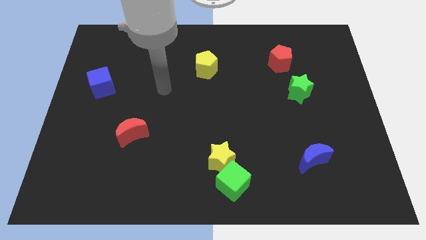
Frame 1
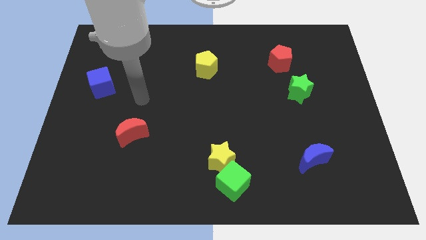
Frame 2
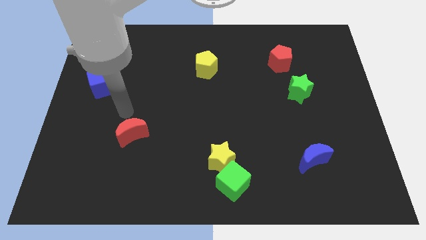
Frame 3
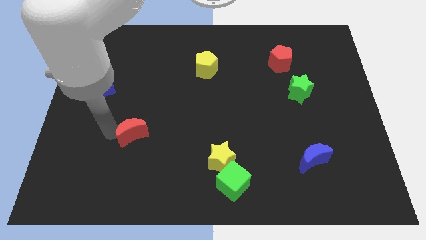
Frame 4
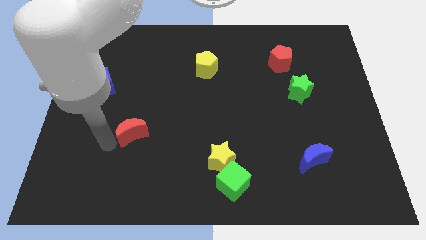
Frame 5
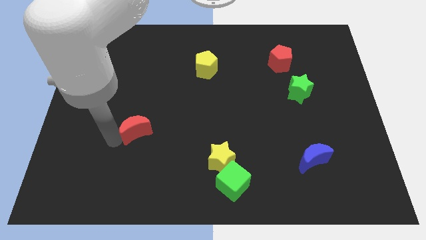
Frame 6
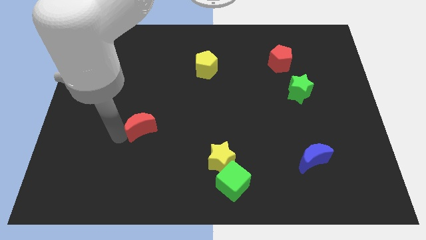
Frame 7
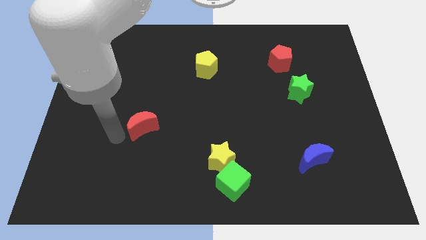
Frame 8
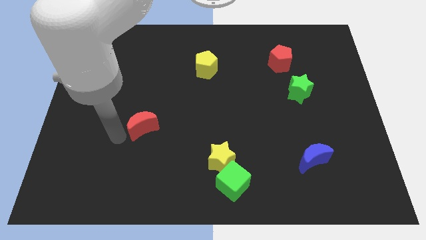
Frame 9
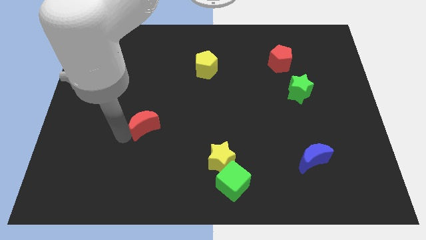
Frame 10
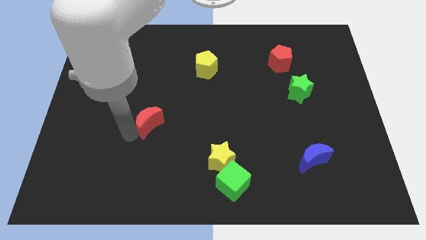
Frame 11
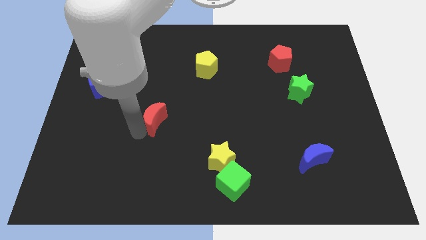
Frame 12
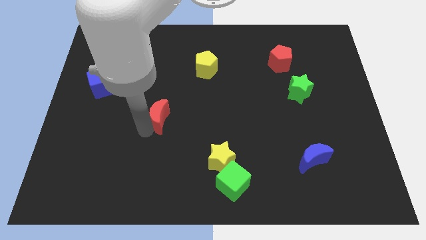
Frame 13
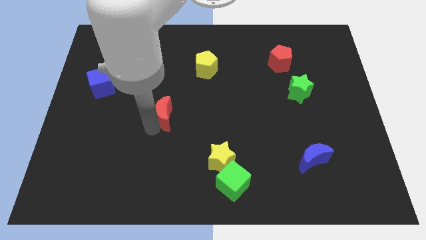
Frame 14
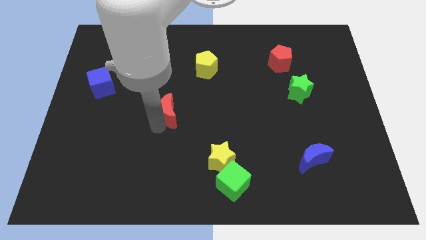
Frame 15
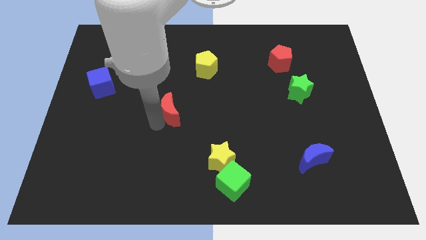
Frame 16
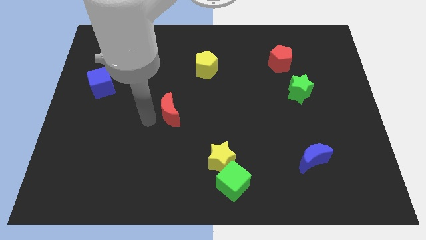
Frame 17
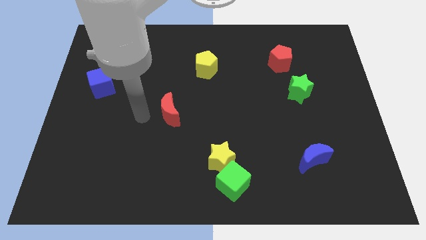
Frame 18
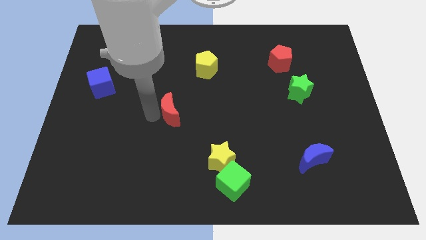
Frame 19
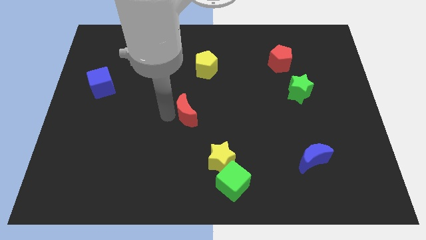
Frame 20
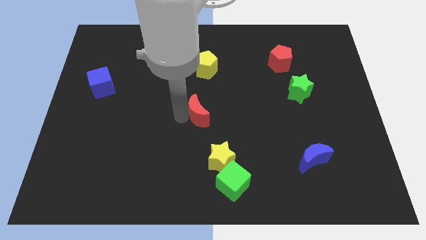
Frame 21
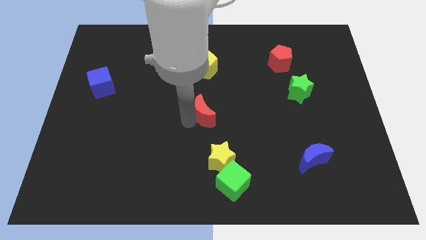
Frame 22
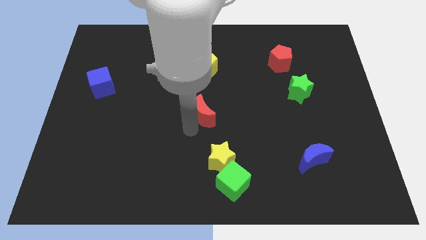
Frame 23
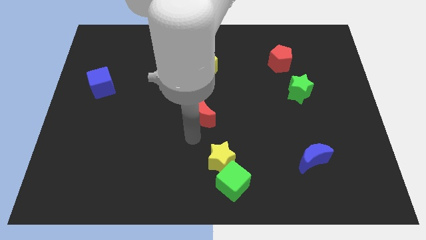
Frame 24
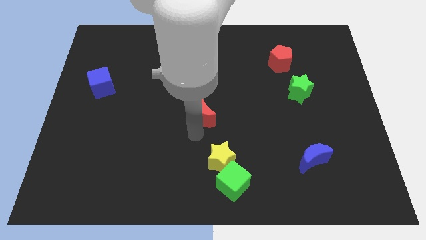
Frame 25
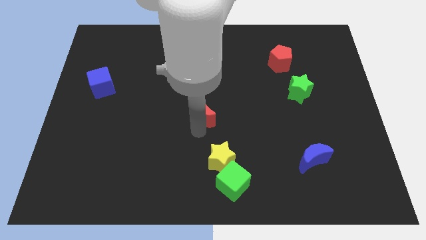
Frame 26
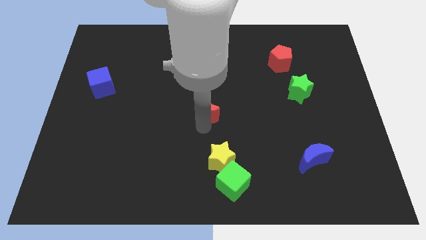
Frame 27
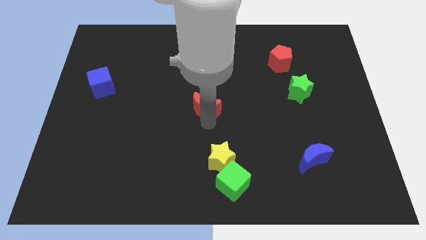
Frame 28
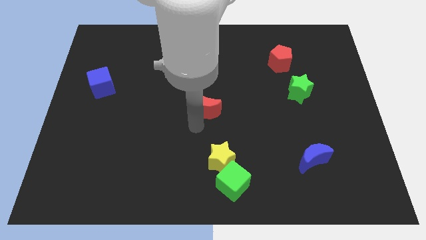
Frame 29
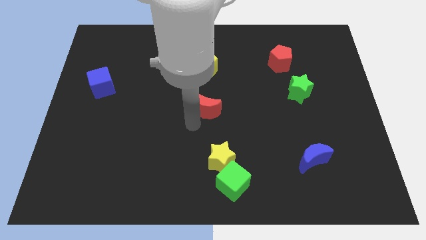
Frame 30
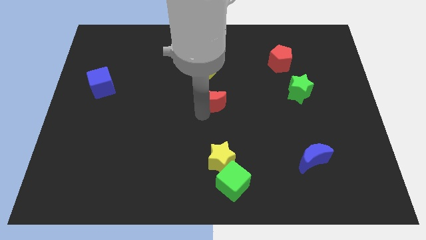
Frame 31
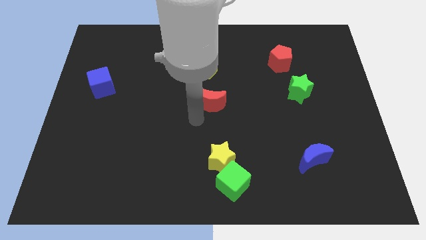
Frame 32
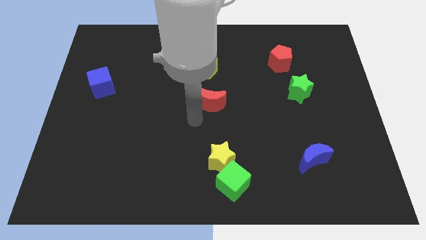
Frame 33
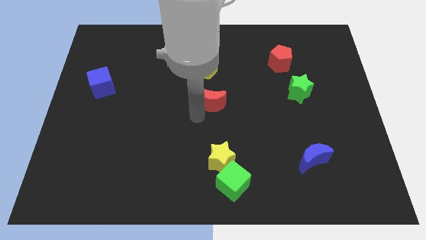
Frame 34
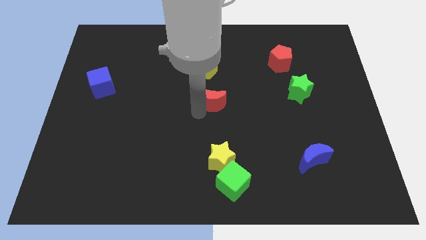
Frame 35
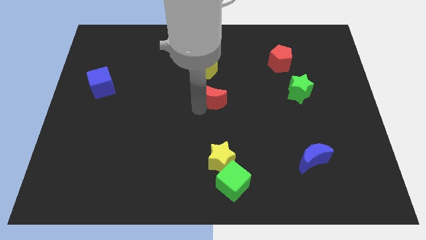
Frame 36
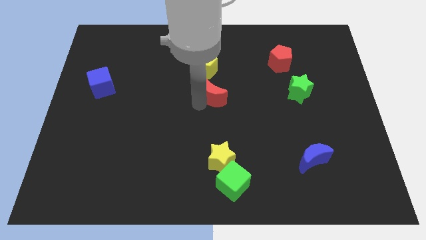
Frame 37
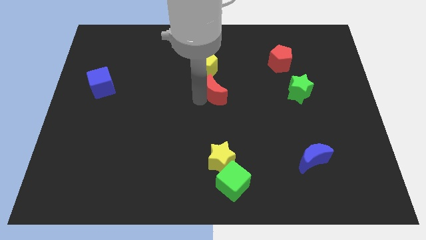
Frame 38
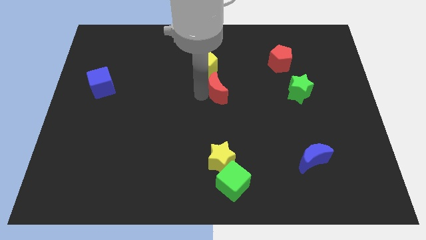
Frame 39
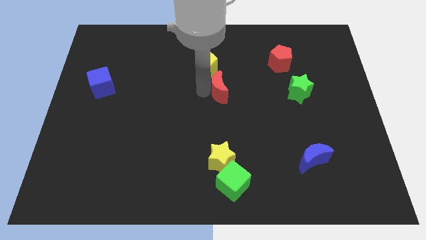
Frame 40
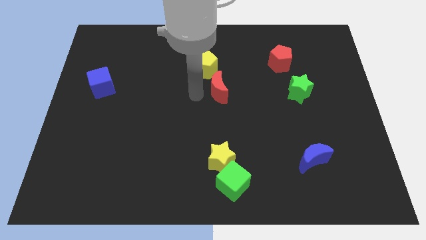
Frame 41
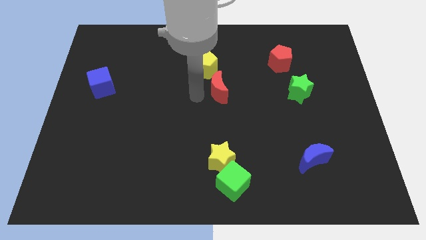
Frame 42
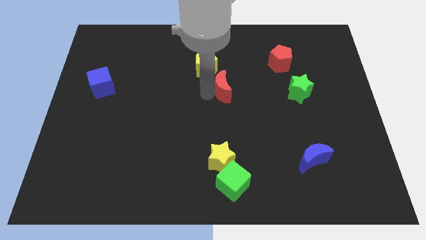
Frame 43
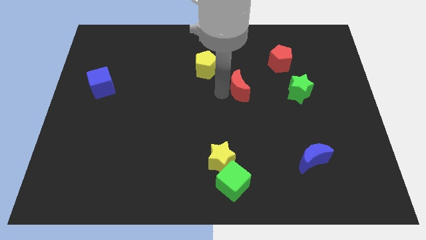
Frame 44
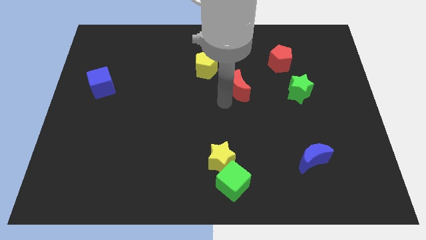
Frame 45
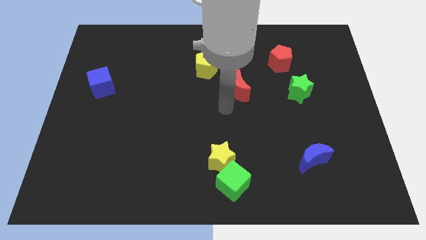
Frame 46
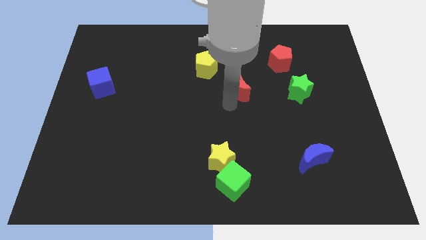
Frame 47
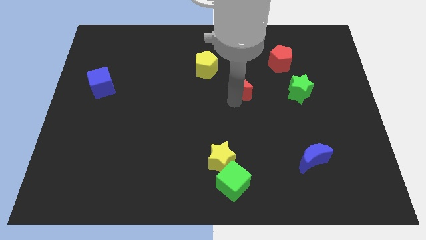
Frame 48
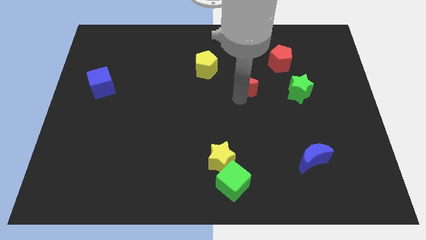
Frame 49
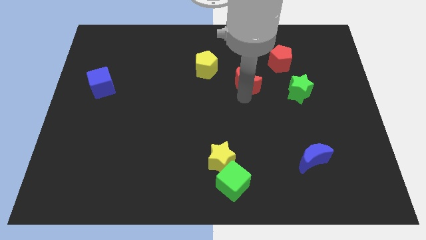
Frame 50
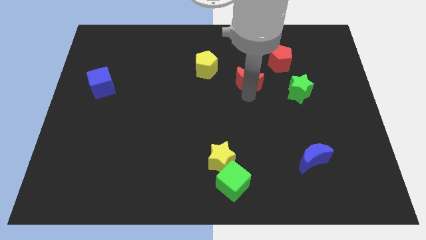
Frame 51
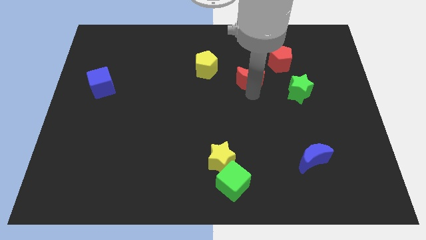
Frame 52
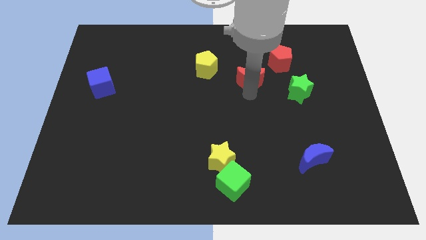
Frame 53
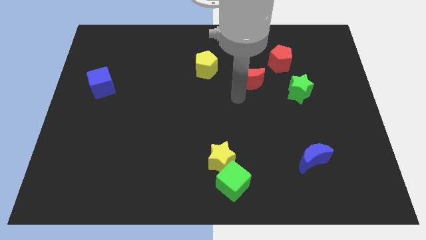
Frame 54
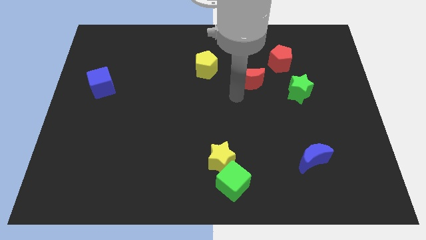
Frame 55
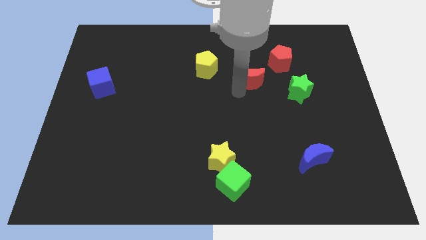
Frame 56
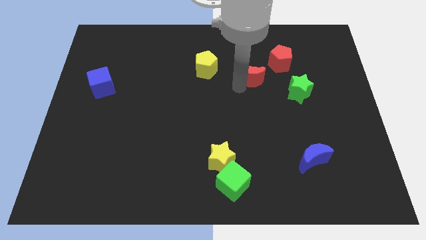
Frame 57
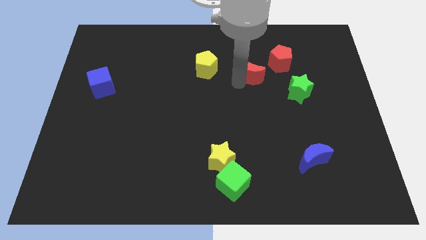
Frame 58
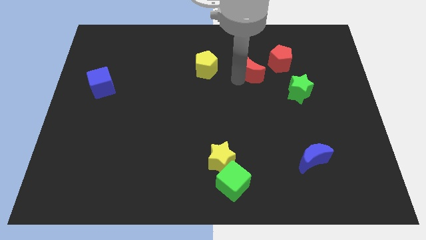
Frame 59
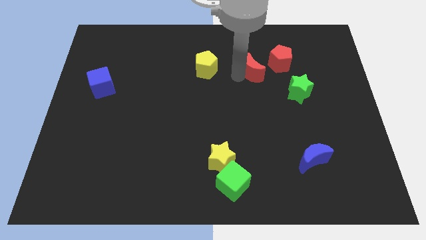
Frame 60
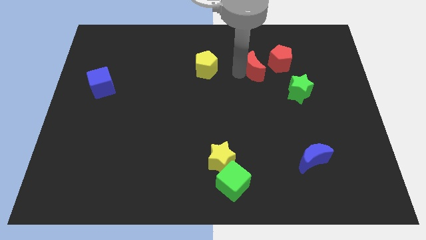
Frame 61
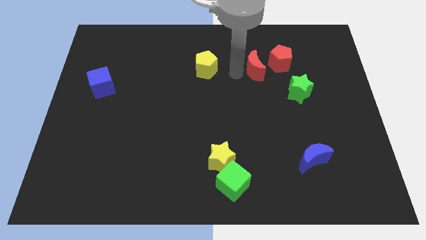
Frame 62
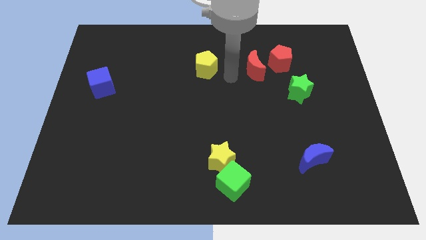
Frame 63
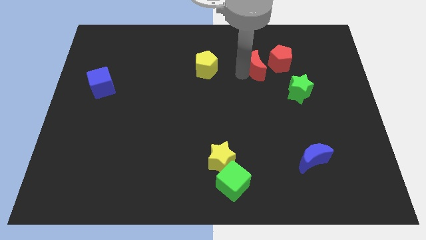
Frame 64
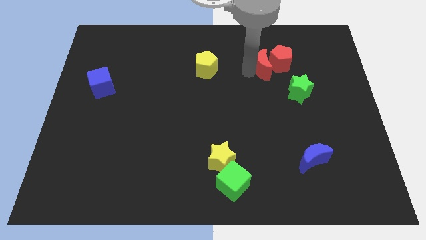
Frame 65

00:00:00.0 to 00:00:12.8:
put the red moon close to the red pentagon
